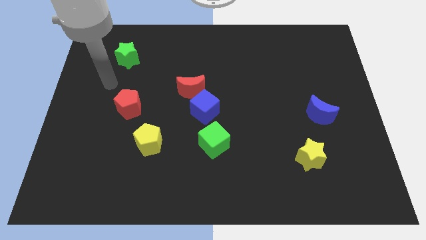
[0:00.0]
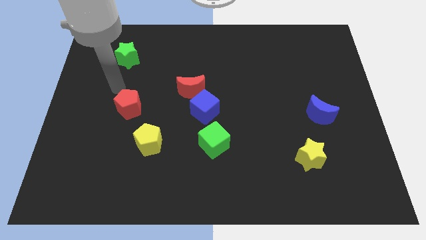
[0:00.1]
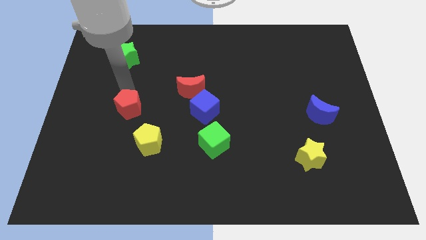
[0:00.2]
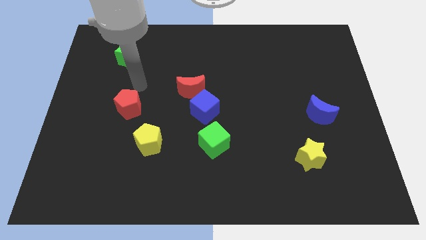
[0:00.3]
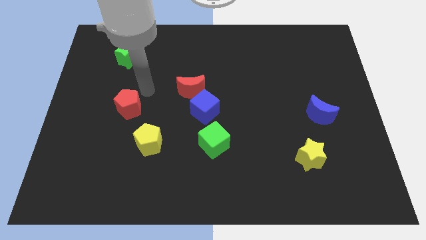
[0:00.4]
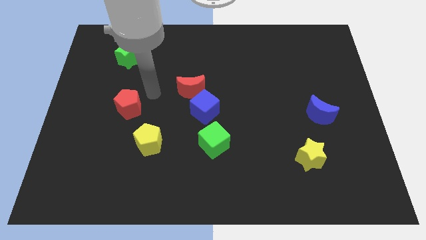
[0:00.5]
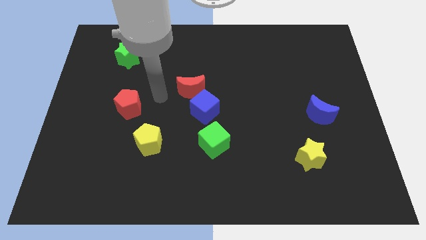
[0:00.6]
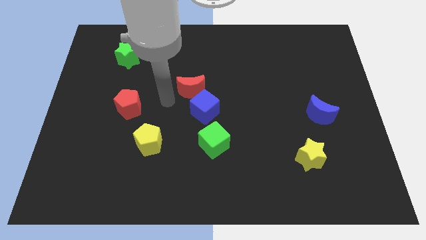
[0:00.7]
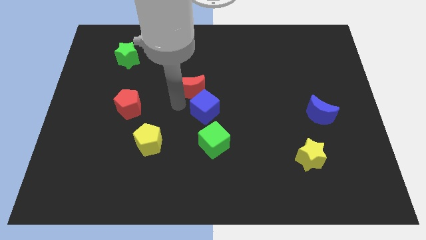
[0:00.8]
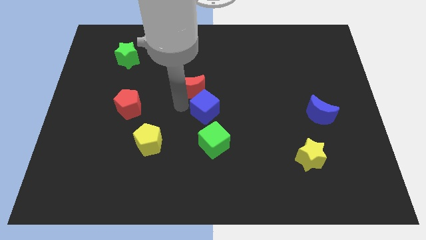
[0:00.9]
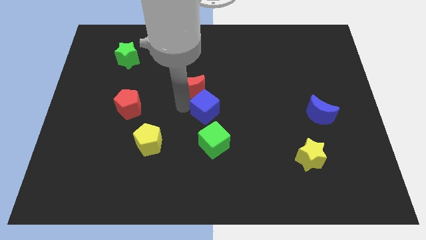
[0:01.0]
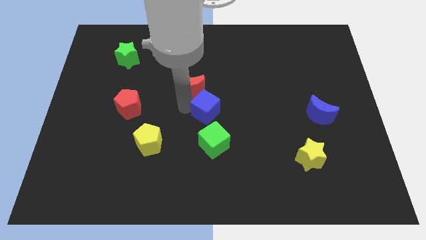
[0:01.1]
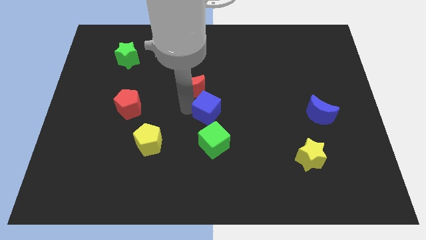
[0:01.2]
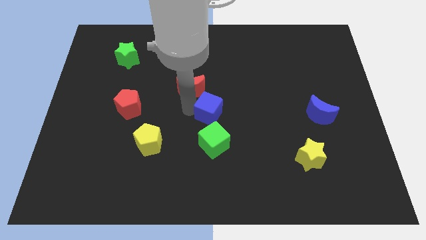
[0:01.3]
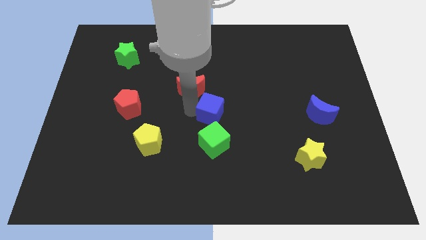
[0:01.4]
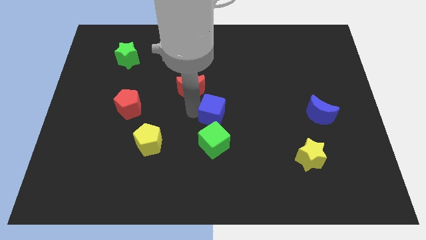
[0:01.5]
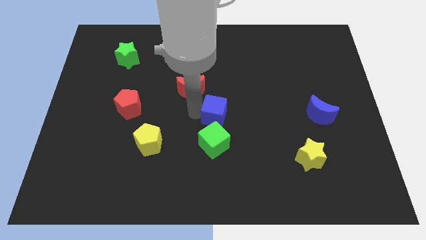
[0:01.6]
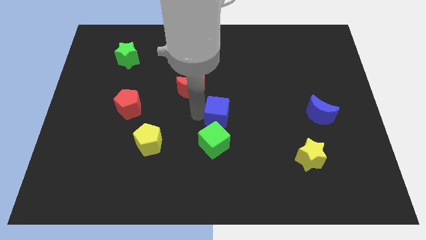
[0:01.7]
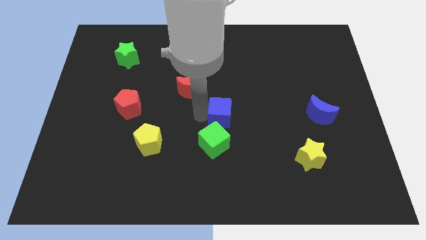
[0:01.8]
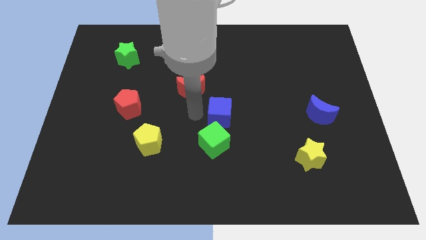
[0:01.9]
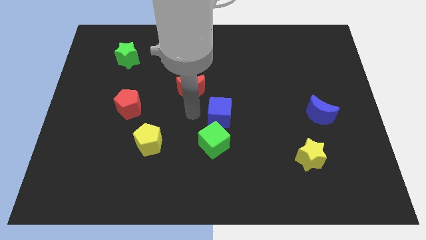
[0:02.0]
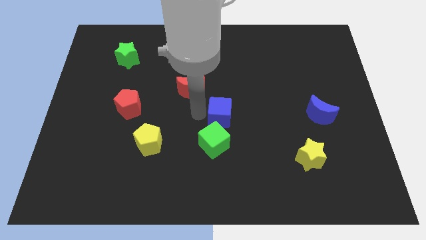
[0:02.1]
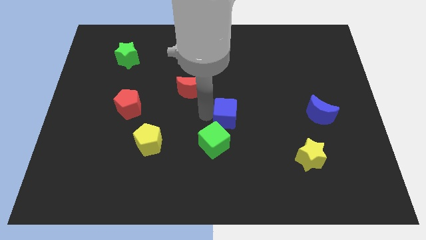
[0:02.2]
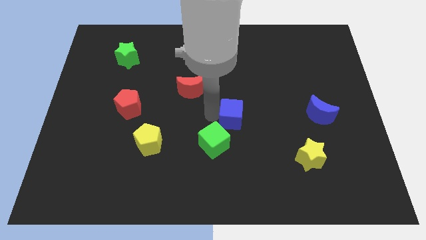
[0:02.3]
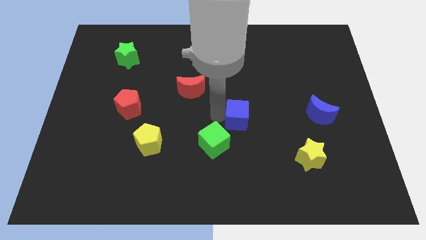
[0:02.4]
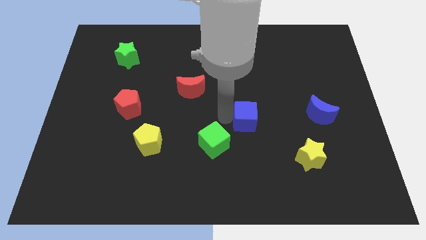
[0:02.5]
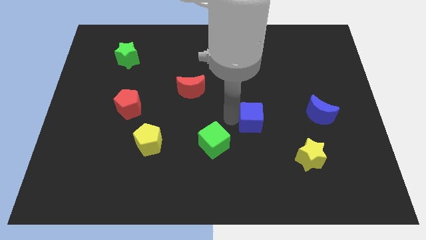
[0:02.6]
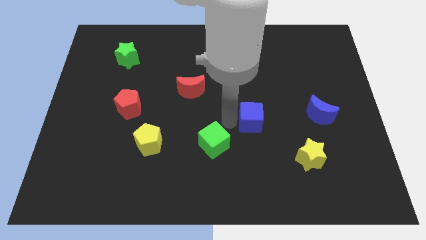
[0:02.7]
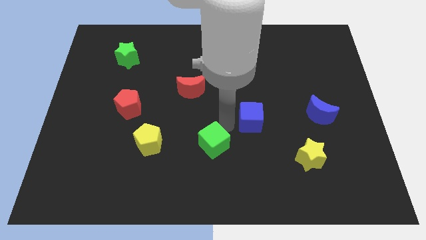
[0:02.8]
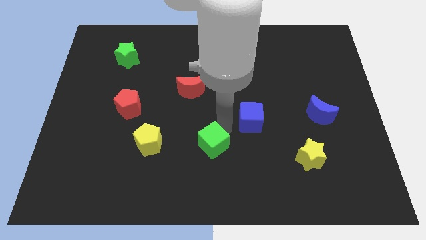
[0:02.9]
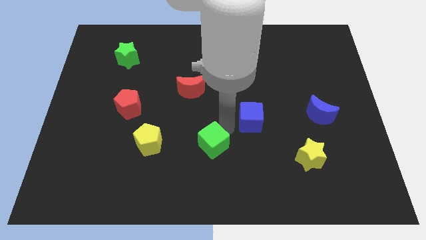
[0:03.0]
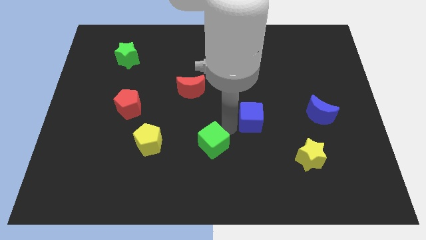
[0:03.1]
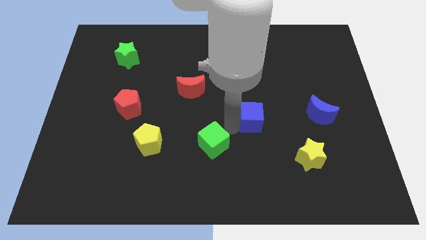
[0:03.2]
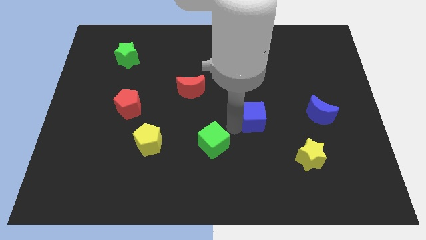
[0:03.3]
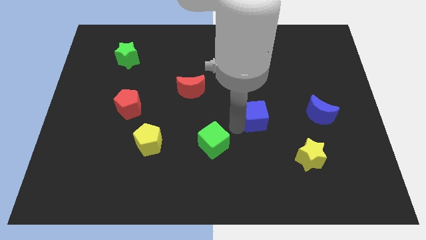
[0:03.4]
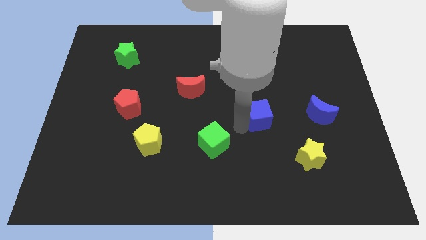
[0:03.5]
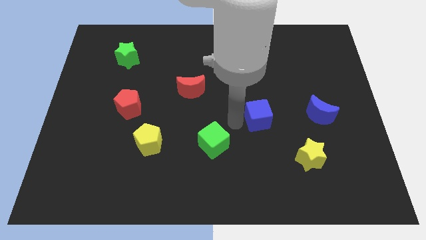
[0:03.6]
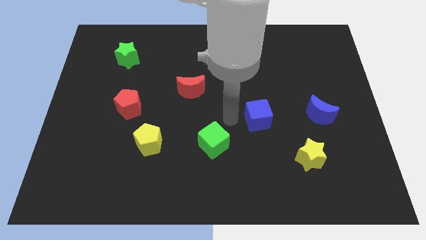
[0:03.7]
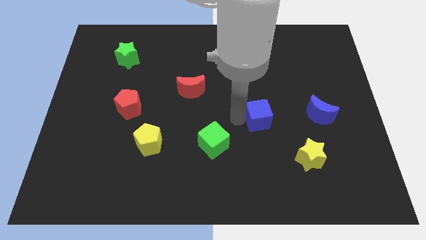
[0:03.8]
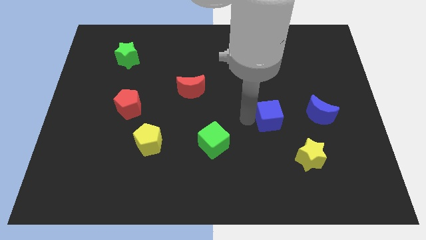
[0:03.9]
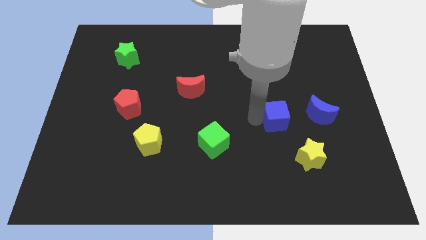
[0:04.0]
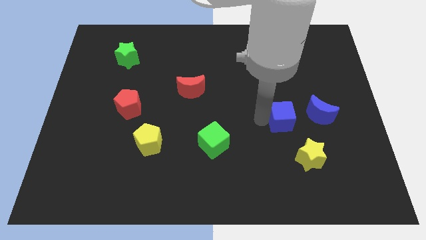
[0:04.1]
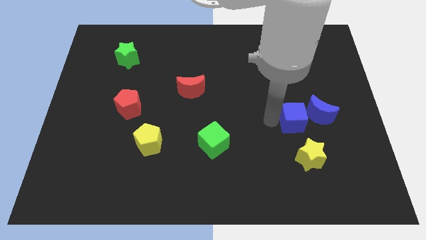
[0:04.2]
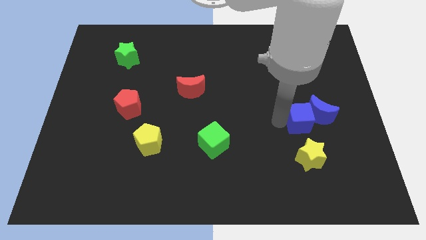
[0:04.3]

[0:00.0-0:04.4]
put the blue cube close to the blue moon

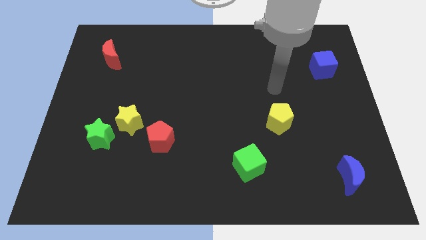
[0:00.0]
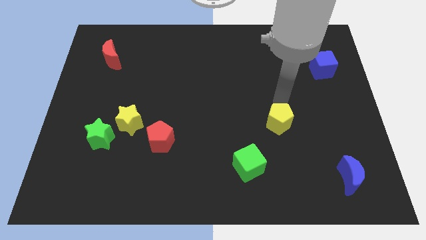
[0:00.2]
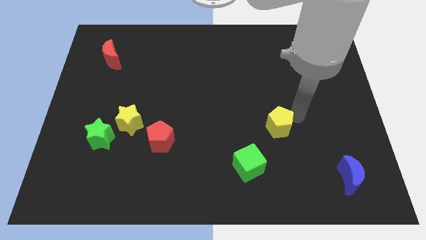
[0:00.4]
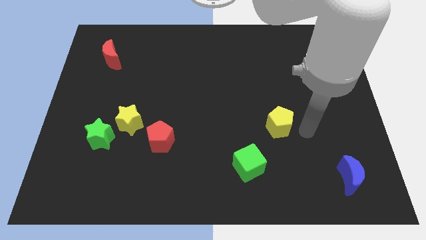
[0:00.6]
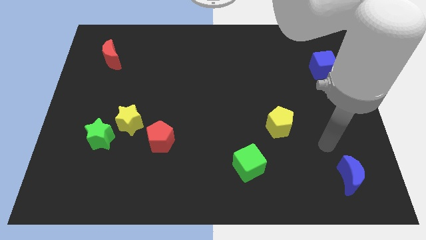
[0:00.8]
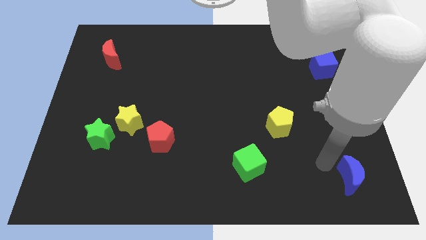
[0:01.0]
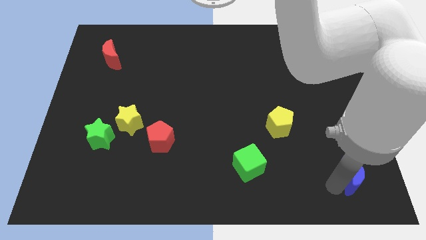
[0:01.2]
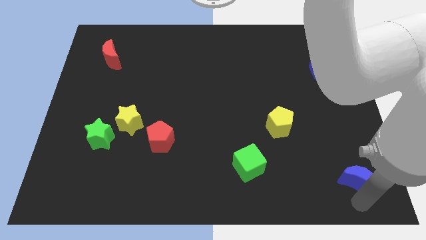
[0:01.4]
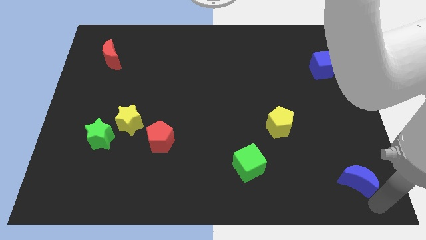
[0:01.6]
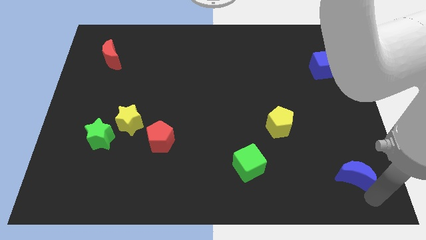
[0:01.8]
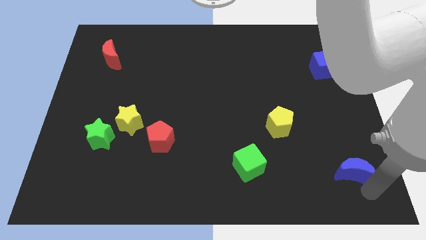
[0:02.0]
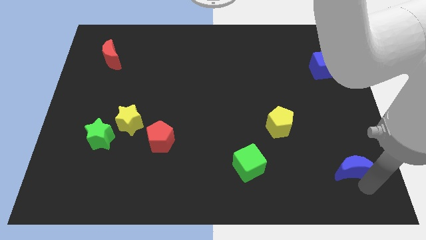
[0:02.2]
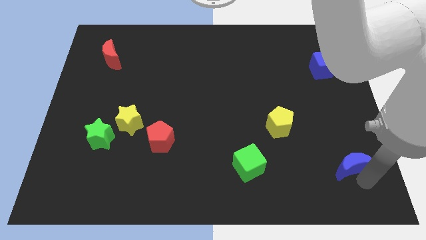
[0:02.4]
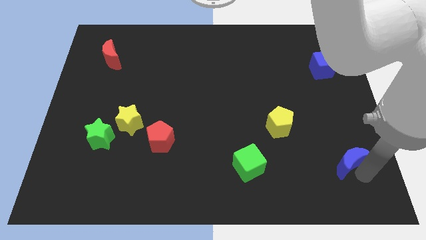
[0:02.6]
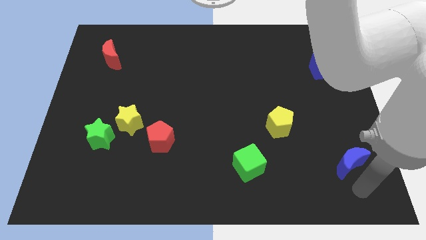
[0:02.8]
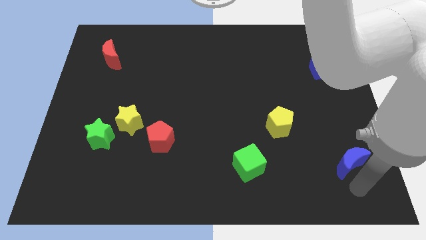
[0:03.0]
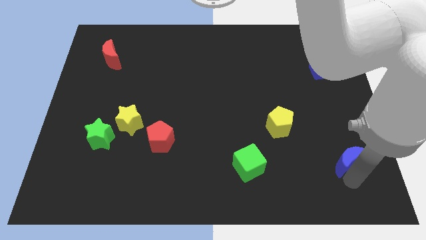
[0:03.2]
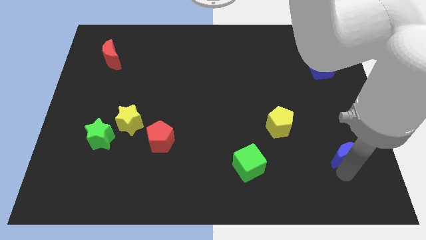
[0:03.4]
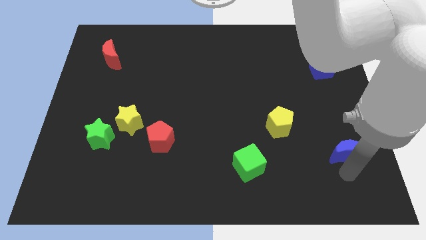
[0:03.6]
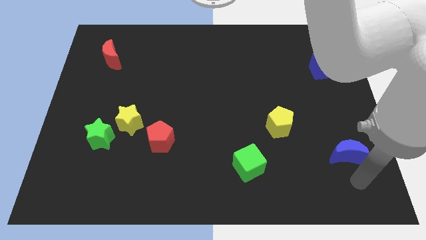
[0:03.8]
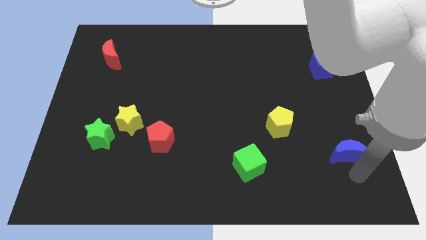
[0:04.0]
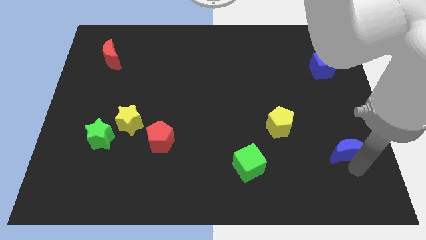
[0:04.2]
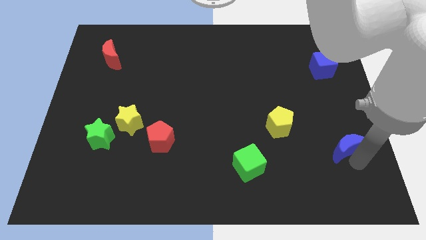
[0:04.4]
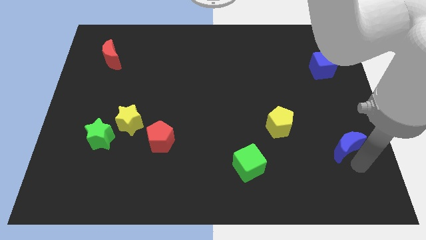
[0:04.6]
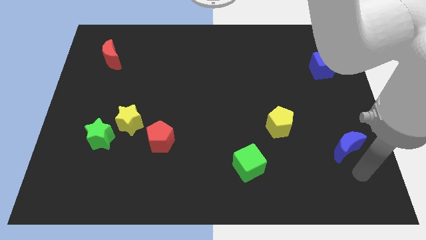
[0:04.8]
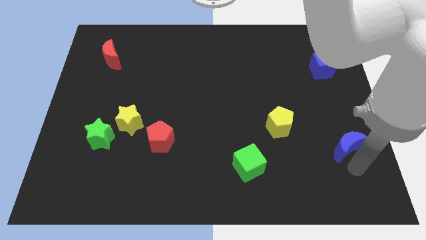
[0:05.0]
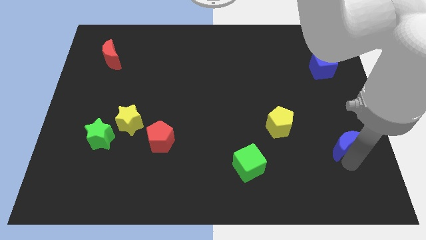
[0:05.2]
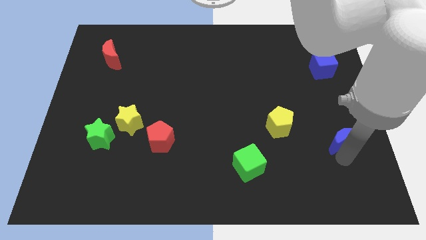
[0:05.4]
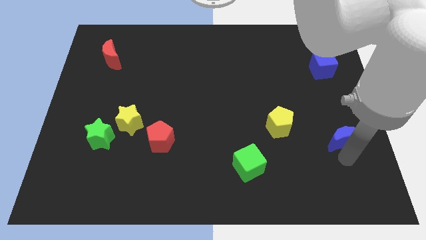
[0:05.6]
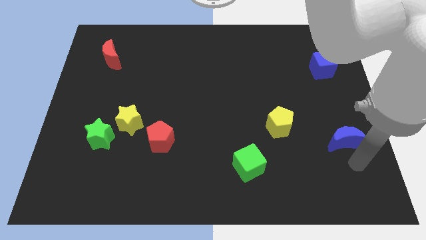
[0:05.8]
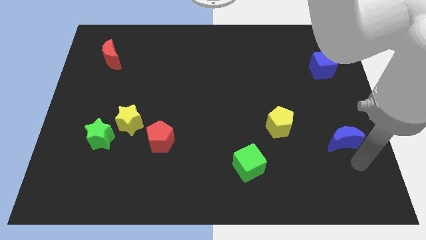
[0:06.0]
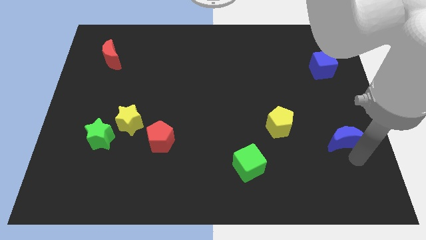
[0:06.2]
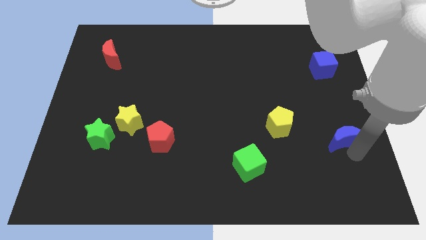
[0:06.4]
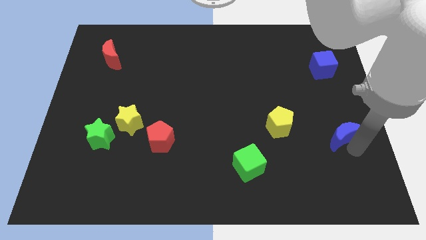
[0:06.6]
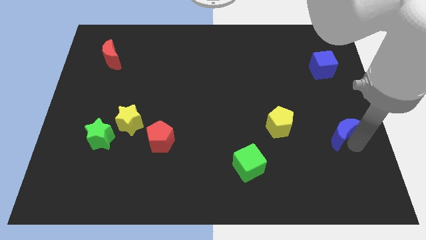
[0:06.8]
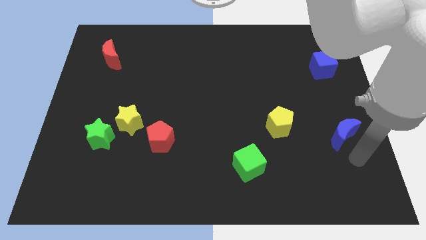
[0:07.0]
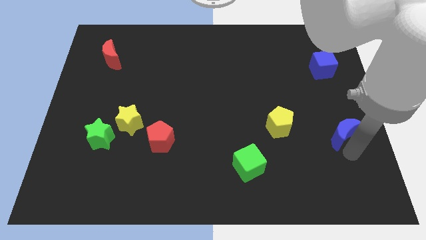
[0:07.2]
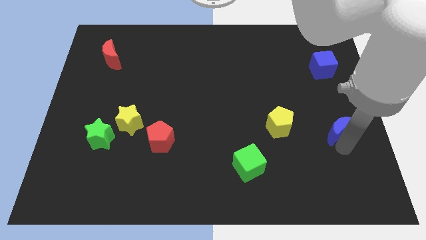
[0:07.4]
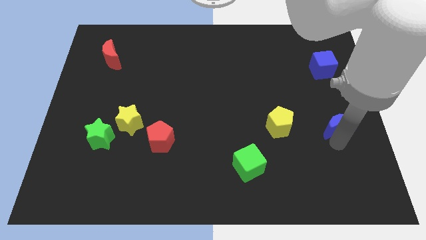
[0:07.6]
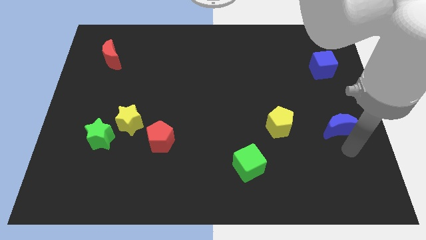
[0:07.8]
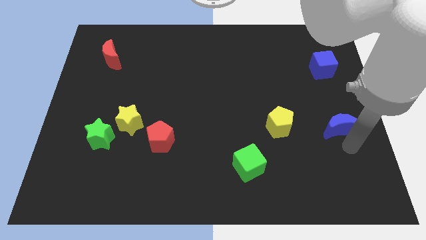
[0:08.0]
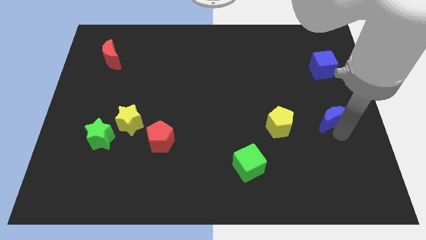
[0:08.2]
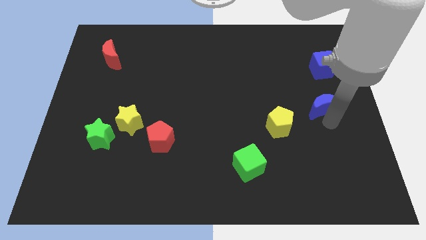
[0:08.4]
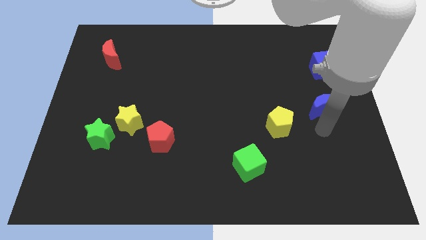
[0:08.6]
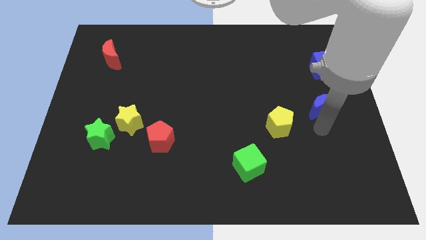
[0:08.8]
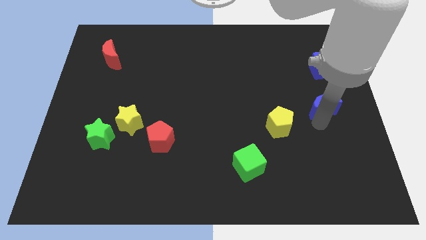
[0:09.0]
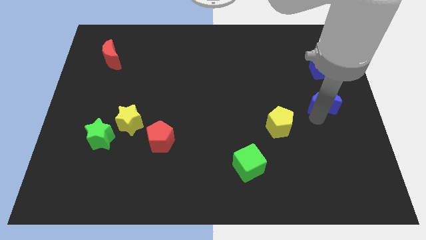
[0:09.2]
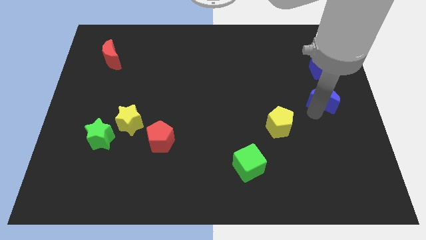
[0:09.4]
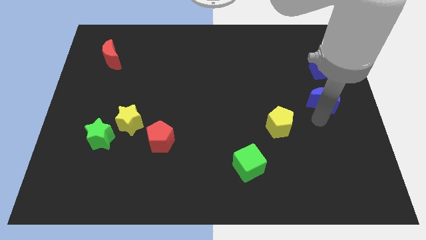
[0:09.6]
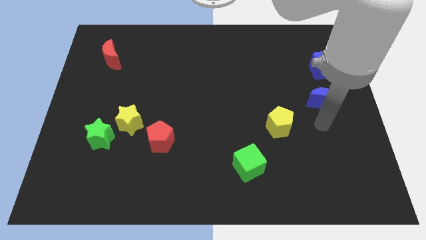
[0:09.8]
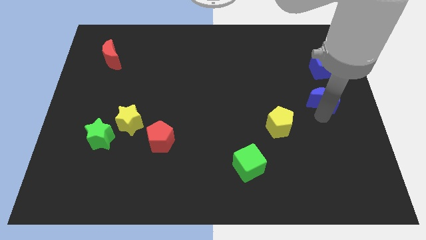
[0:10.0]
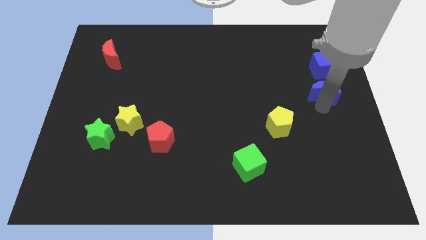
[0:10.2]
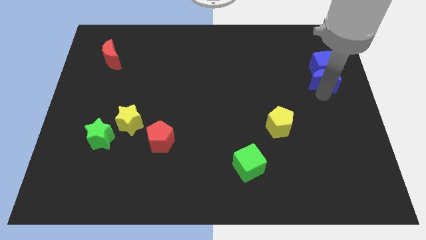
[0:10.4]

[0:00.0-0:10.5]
slide the blue moon to the blue cube
